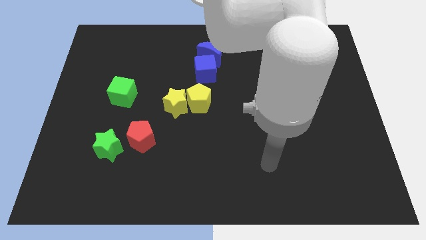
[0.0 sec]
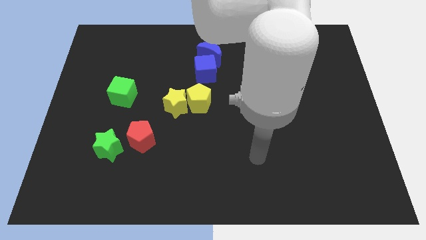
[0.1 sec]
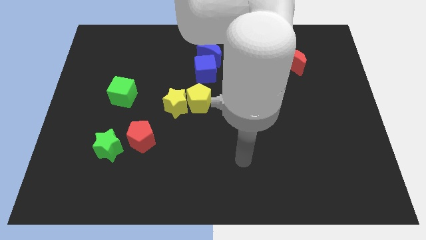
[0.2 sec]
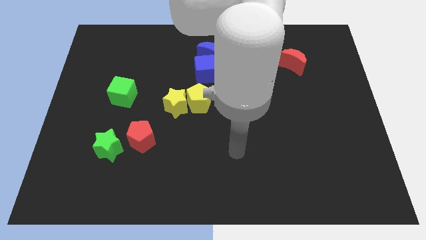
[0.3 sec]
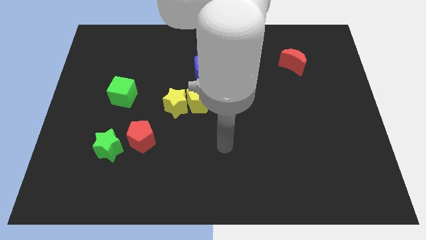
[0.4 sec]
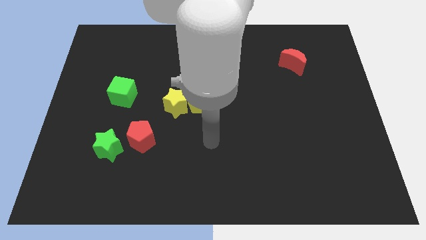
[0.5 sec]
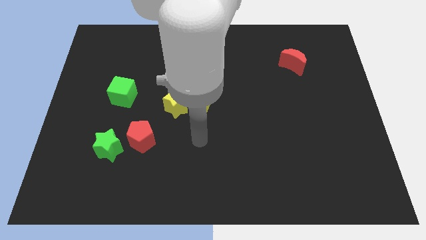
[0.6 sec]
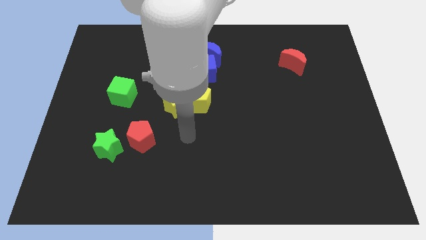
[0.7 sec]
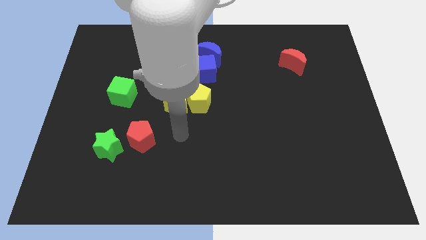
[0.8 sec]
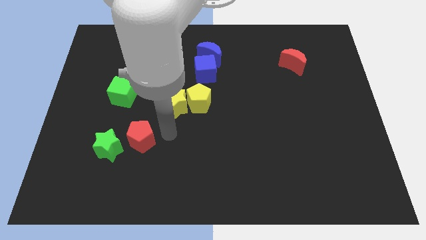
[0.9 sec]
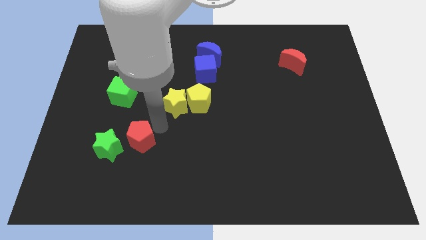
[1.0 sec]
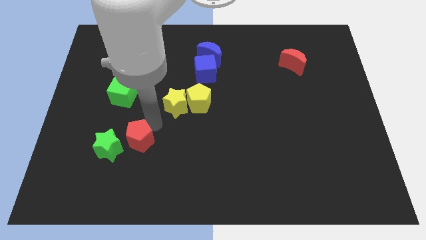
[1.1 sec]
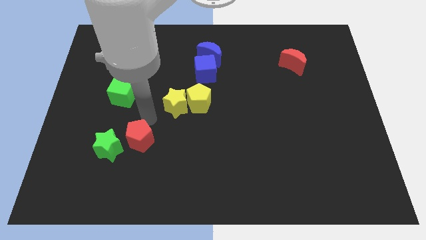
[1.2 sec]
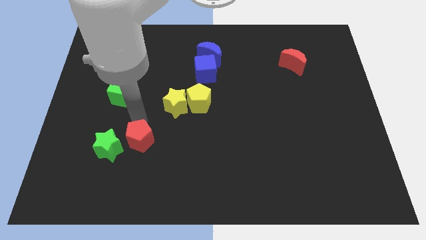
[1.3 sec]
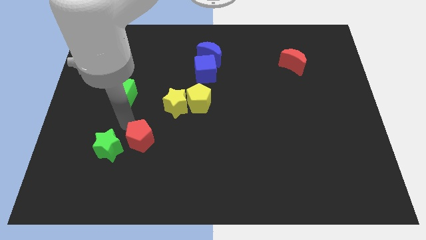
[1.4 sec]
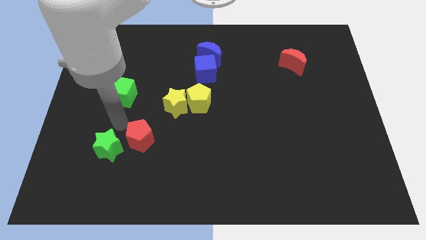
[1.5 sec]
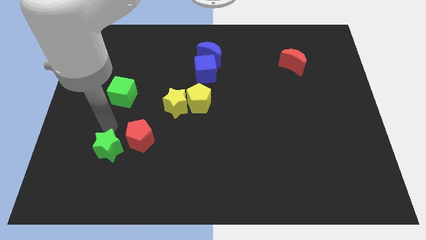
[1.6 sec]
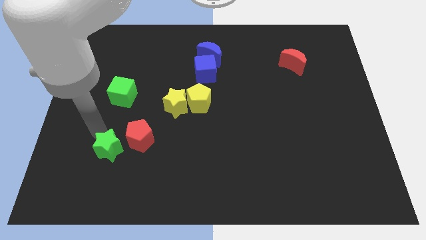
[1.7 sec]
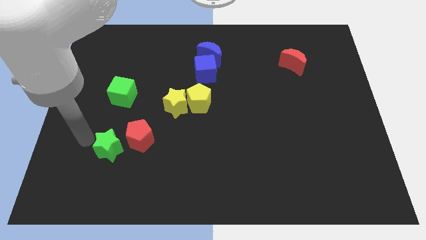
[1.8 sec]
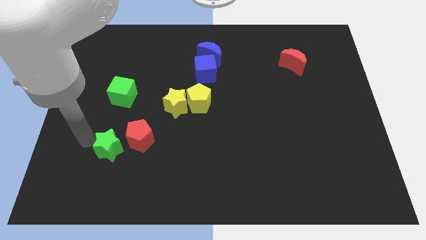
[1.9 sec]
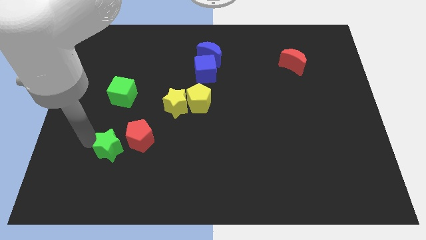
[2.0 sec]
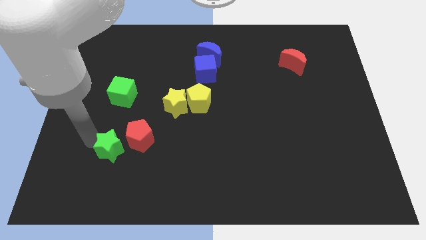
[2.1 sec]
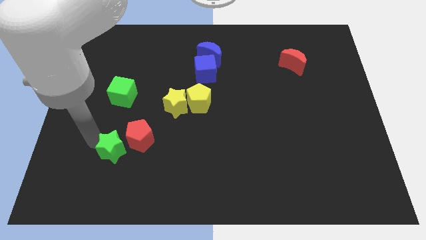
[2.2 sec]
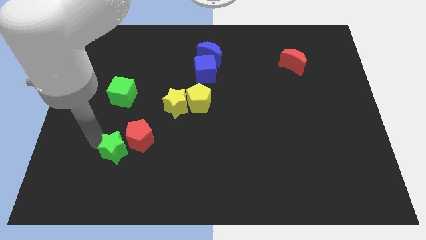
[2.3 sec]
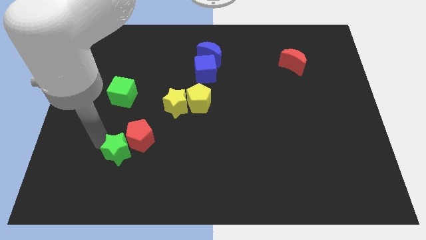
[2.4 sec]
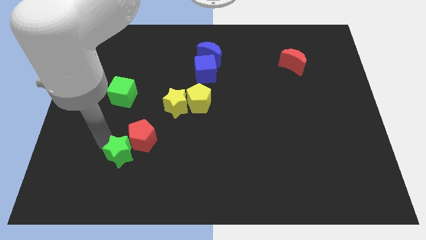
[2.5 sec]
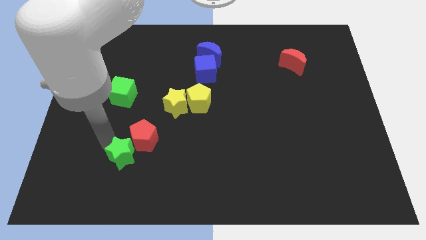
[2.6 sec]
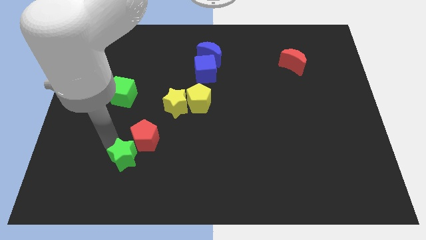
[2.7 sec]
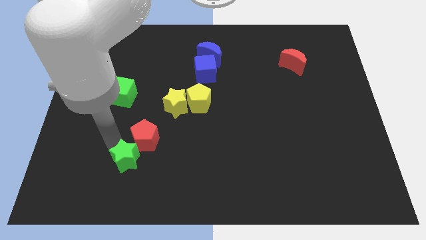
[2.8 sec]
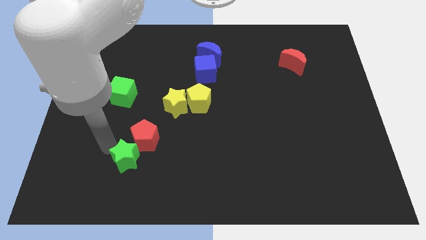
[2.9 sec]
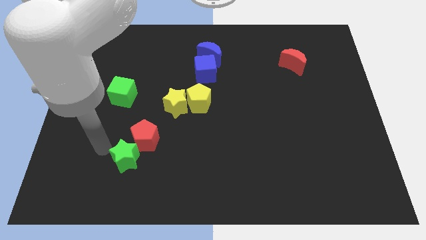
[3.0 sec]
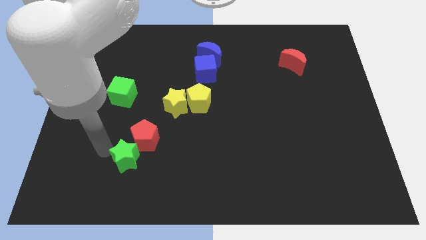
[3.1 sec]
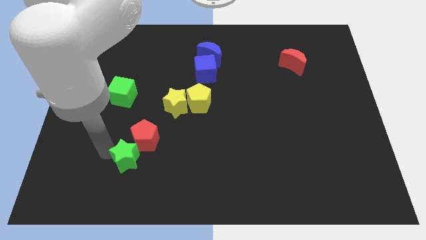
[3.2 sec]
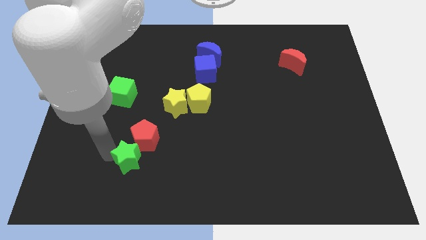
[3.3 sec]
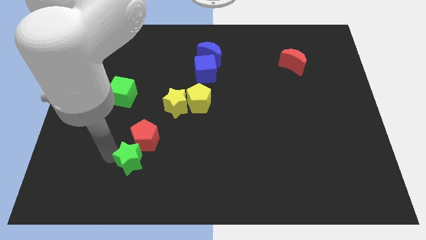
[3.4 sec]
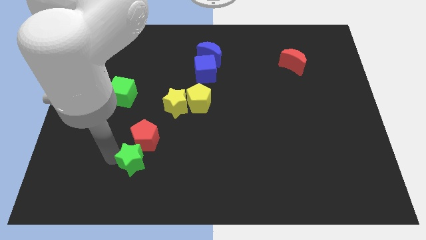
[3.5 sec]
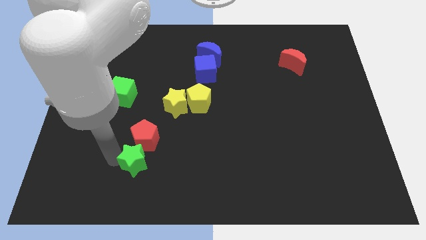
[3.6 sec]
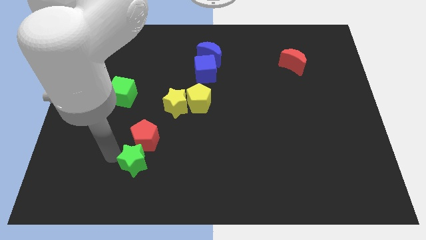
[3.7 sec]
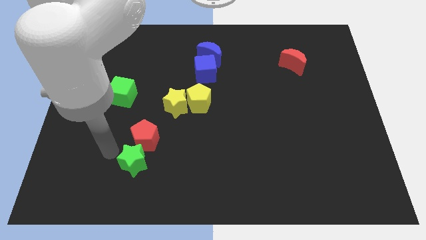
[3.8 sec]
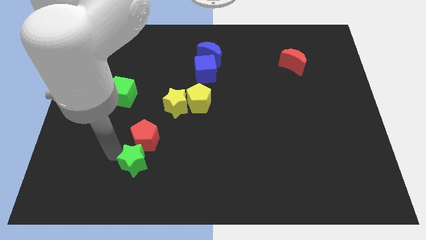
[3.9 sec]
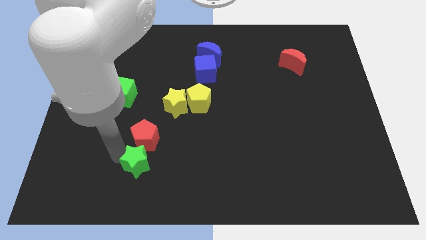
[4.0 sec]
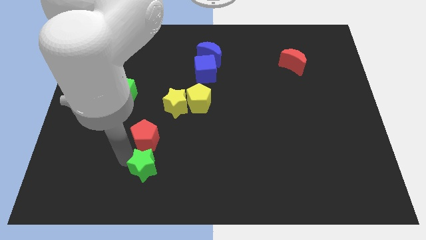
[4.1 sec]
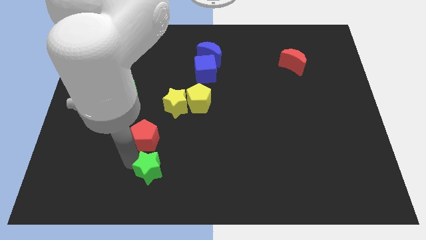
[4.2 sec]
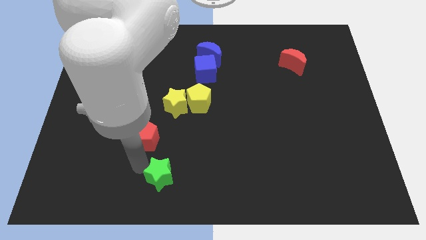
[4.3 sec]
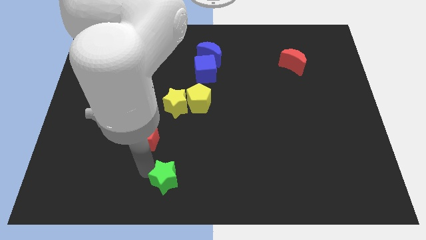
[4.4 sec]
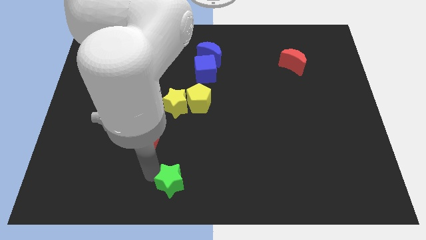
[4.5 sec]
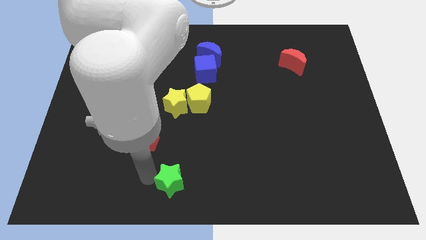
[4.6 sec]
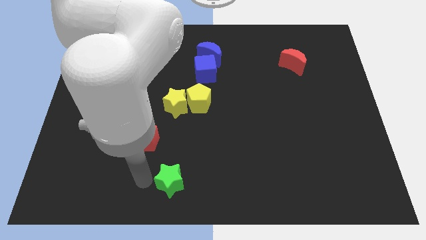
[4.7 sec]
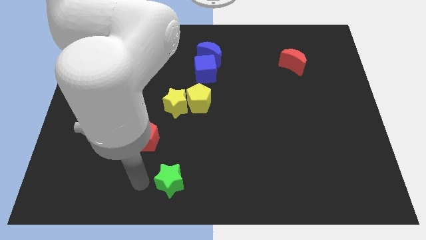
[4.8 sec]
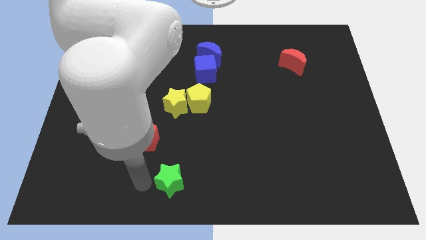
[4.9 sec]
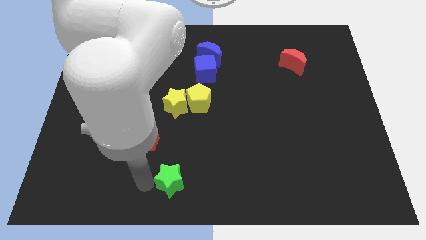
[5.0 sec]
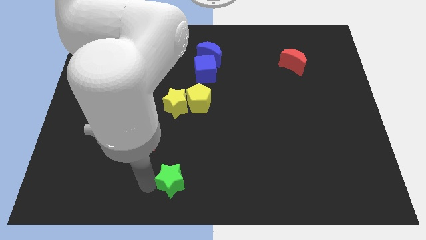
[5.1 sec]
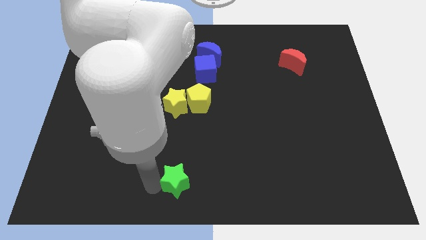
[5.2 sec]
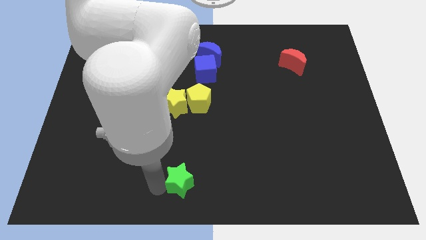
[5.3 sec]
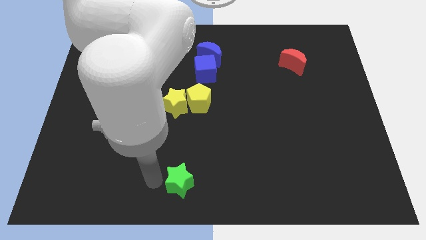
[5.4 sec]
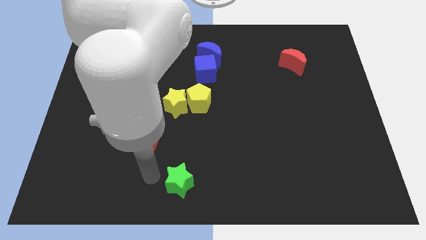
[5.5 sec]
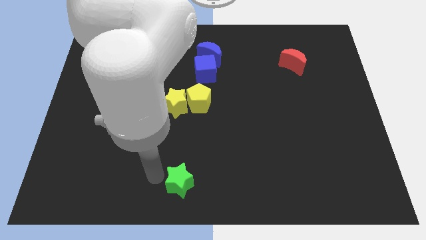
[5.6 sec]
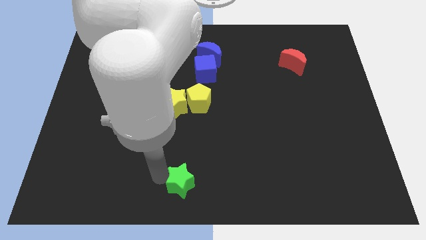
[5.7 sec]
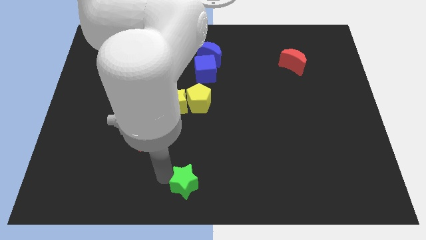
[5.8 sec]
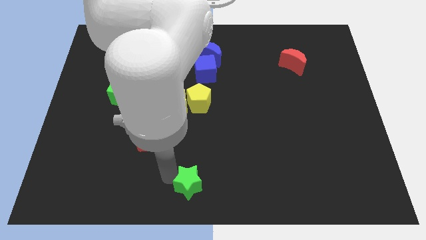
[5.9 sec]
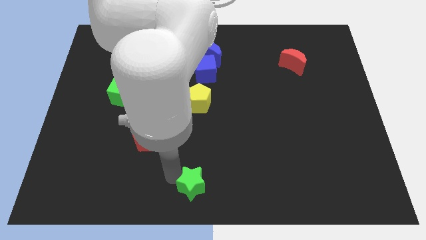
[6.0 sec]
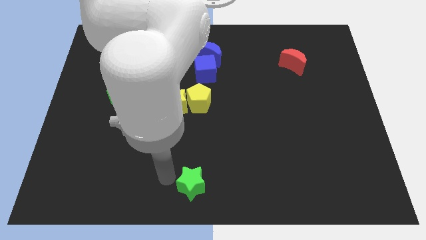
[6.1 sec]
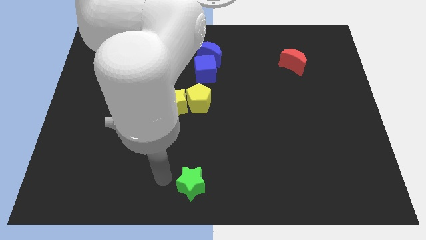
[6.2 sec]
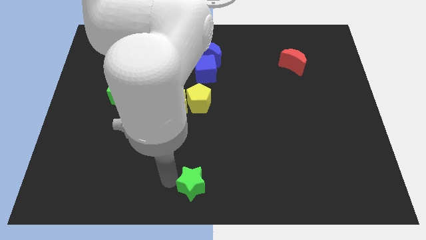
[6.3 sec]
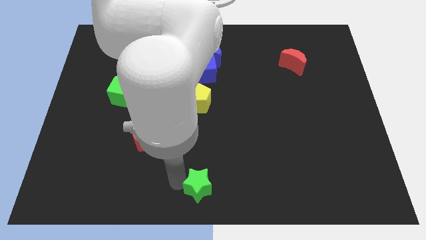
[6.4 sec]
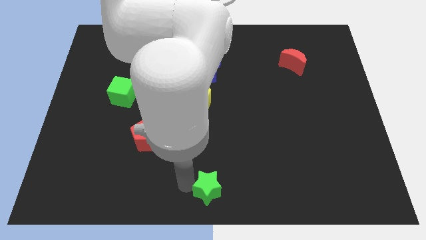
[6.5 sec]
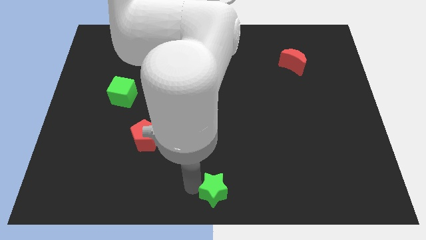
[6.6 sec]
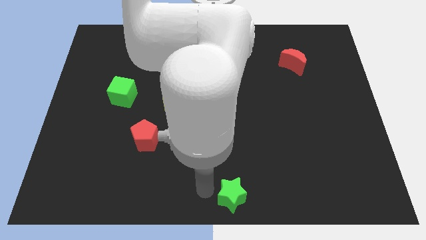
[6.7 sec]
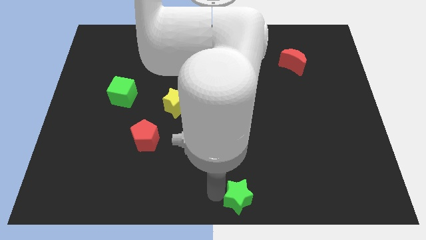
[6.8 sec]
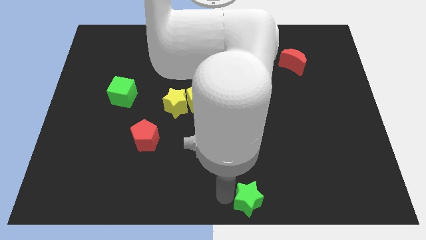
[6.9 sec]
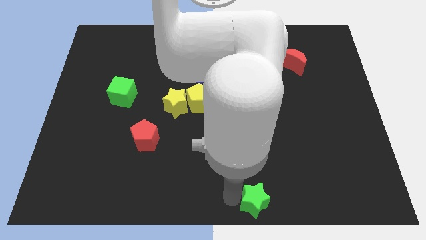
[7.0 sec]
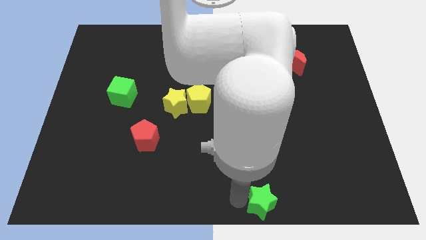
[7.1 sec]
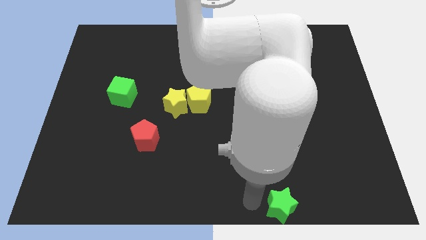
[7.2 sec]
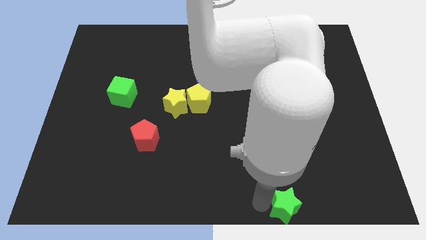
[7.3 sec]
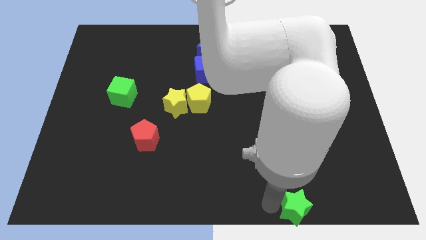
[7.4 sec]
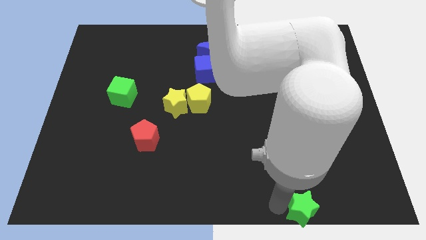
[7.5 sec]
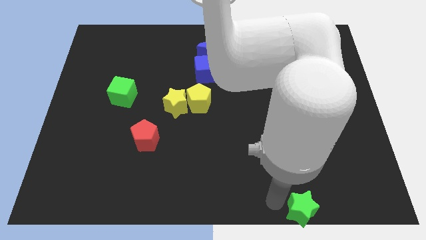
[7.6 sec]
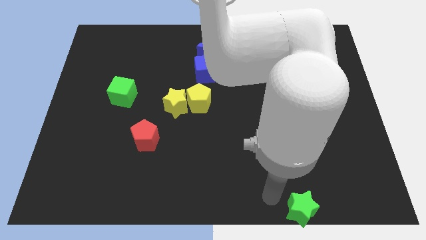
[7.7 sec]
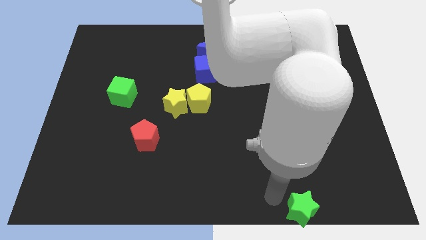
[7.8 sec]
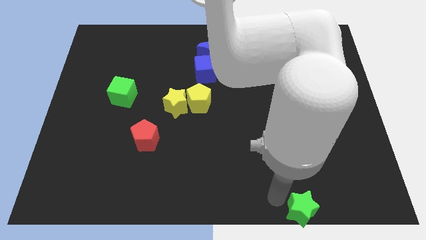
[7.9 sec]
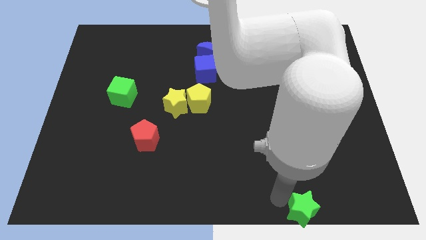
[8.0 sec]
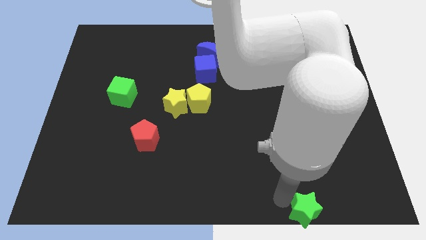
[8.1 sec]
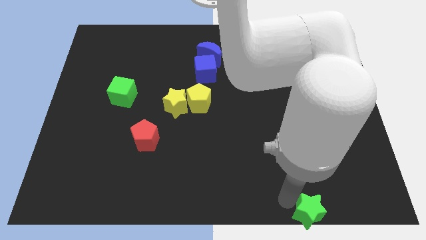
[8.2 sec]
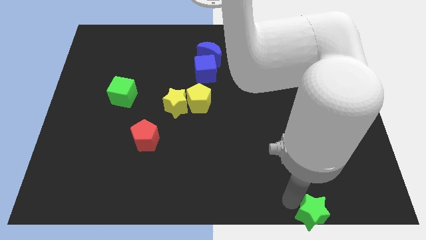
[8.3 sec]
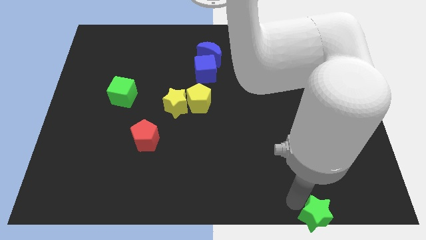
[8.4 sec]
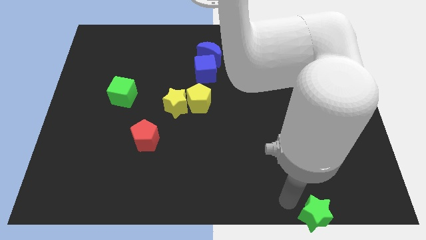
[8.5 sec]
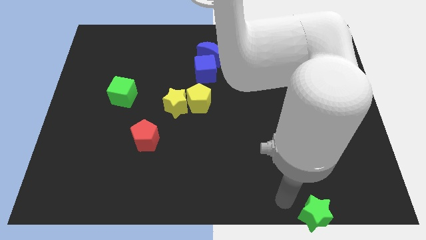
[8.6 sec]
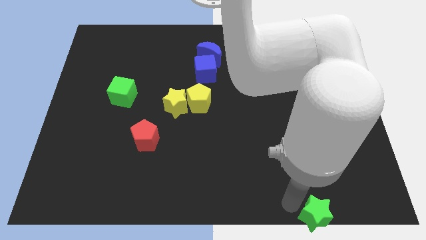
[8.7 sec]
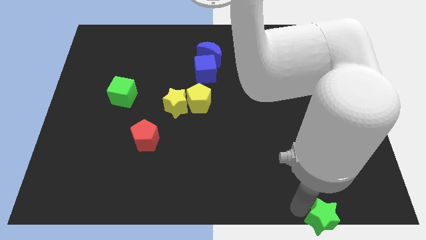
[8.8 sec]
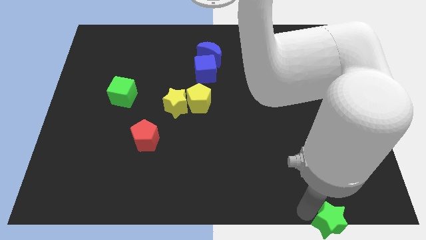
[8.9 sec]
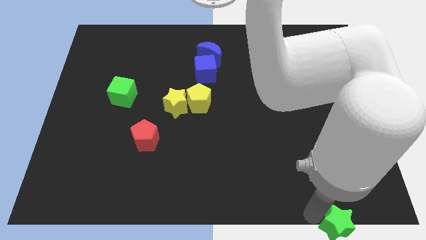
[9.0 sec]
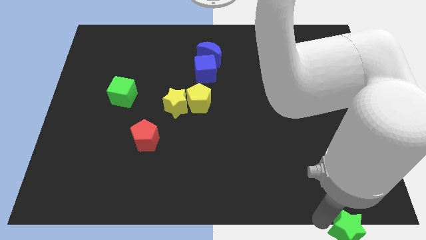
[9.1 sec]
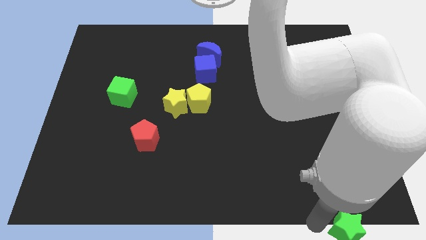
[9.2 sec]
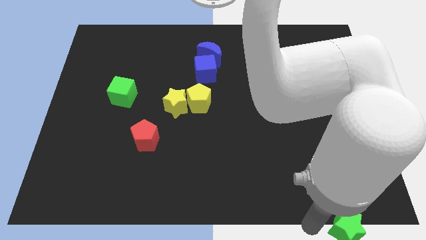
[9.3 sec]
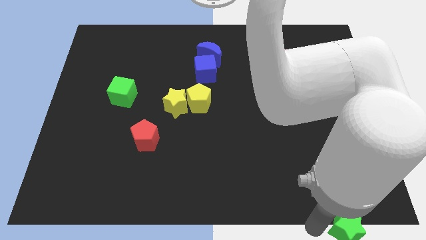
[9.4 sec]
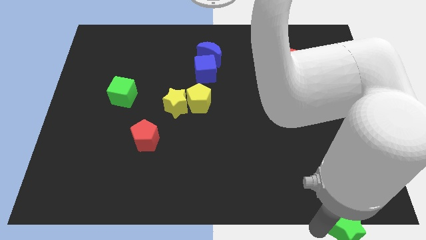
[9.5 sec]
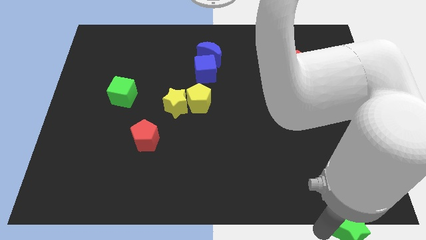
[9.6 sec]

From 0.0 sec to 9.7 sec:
slide the green star to the bottom right corner
